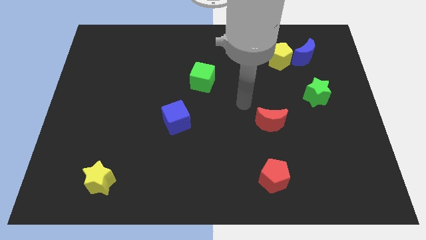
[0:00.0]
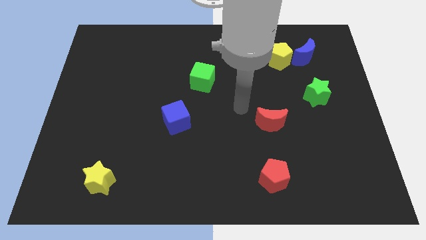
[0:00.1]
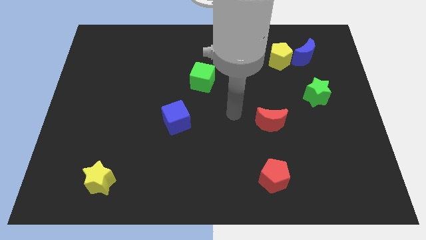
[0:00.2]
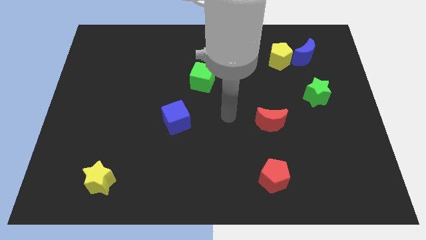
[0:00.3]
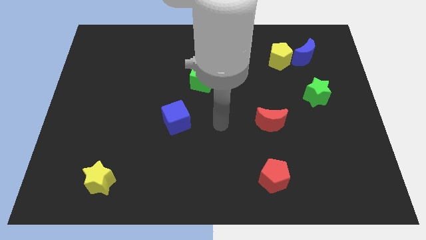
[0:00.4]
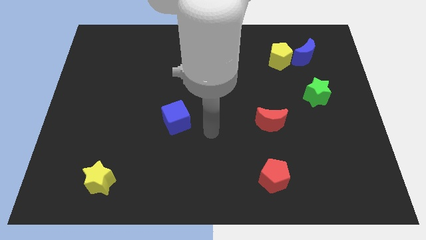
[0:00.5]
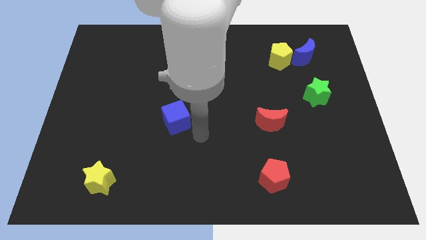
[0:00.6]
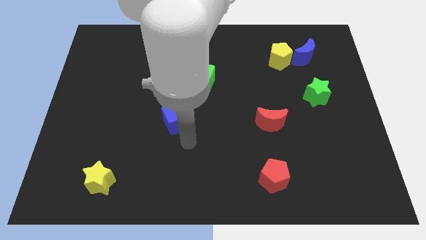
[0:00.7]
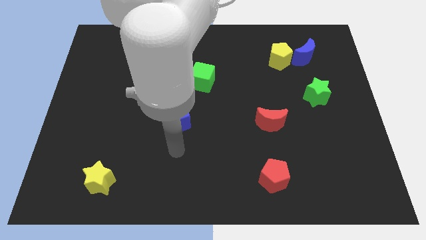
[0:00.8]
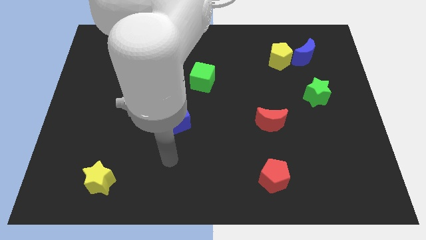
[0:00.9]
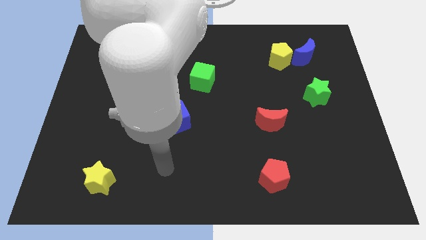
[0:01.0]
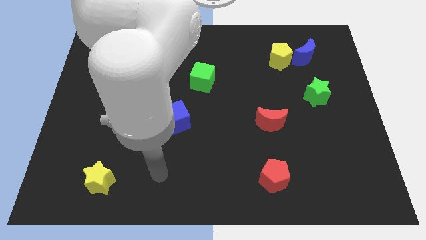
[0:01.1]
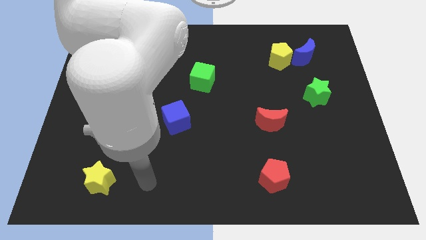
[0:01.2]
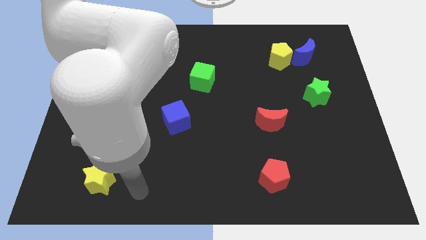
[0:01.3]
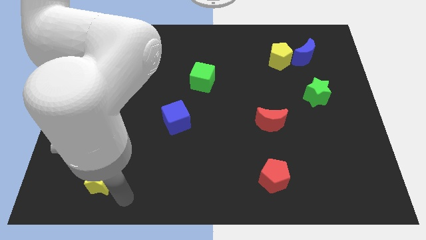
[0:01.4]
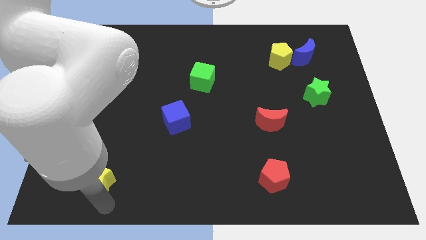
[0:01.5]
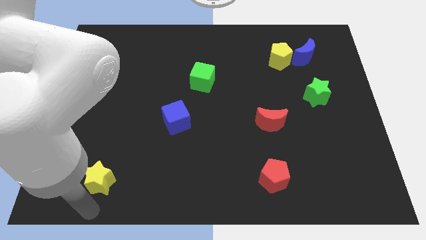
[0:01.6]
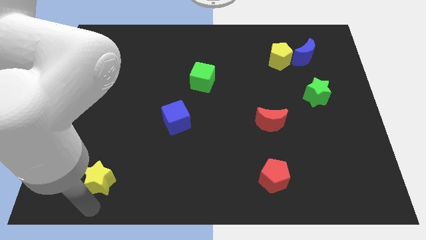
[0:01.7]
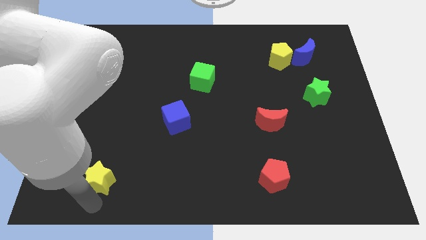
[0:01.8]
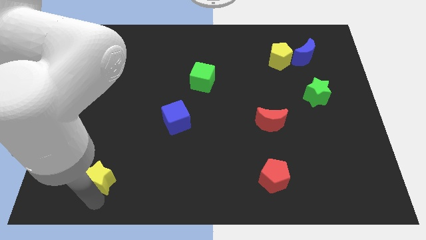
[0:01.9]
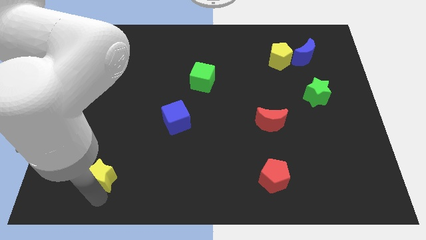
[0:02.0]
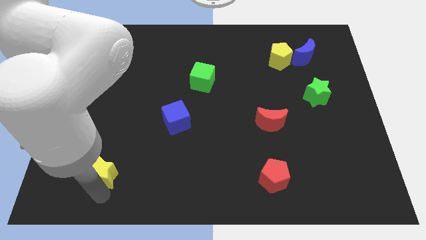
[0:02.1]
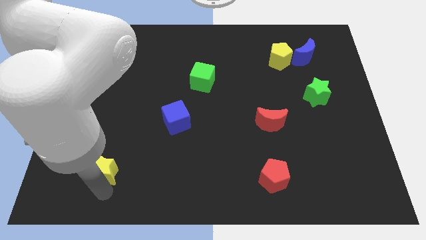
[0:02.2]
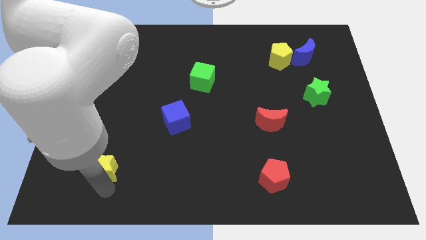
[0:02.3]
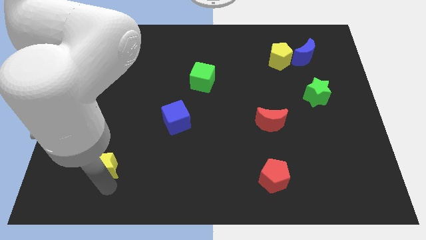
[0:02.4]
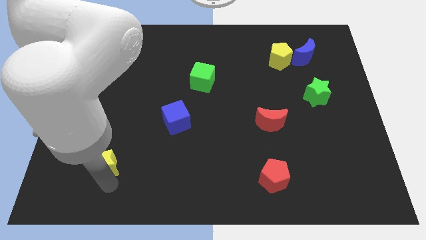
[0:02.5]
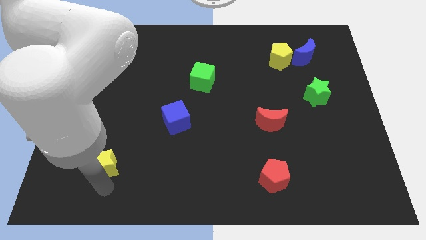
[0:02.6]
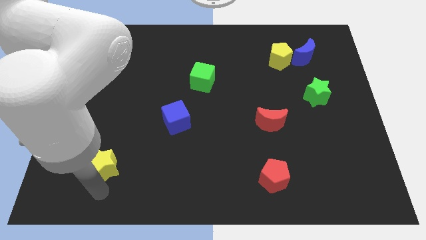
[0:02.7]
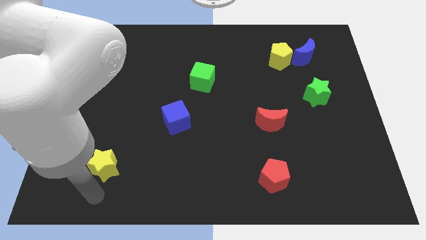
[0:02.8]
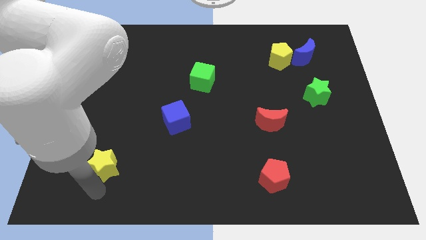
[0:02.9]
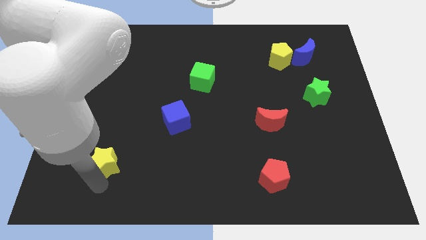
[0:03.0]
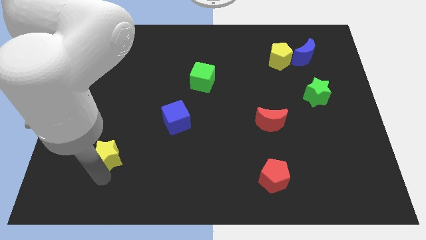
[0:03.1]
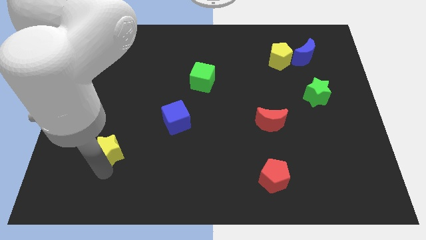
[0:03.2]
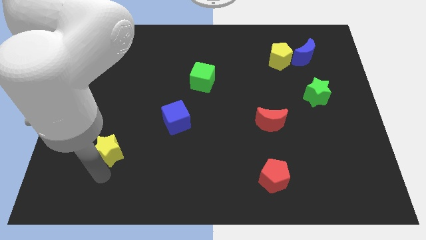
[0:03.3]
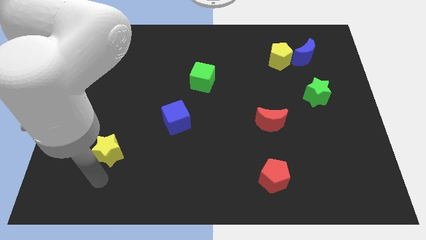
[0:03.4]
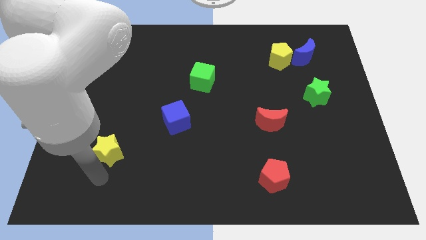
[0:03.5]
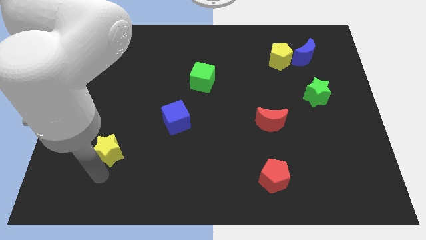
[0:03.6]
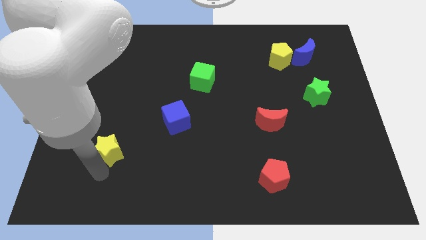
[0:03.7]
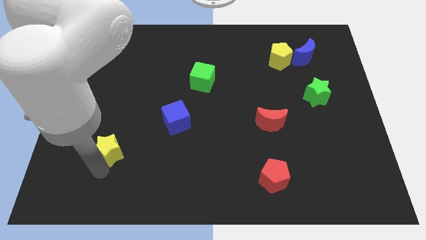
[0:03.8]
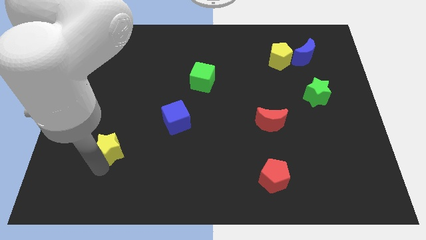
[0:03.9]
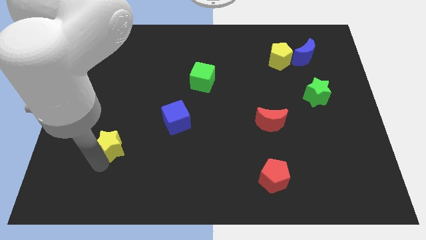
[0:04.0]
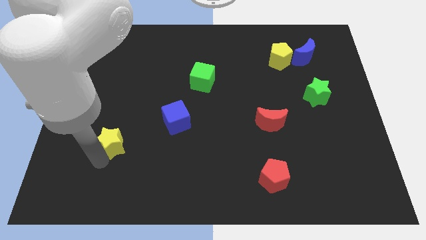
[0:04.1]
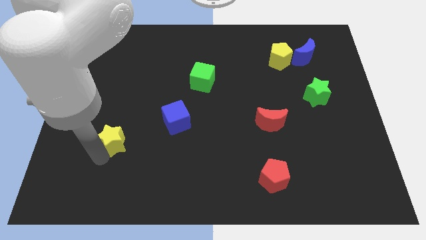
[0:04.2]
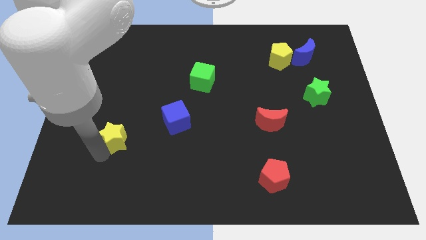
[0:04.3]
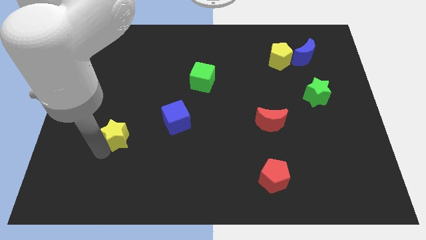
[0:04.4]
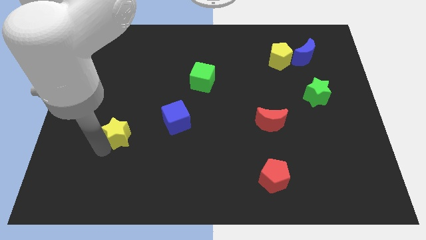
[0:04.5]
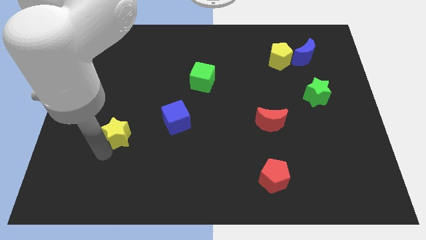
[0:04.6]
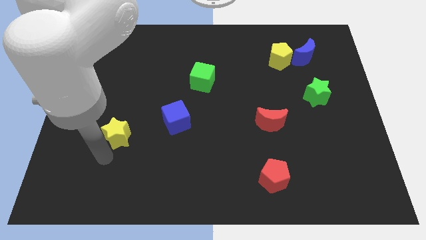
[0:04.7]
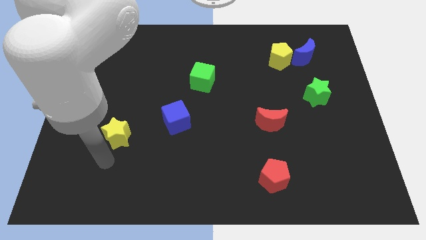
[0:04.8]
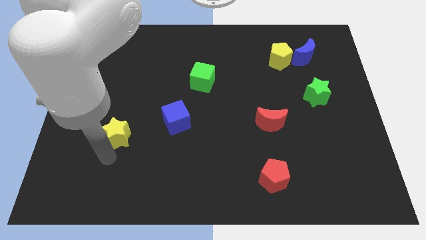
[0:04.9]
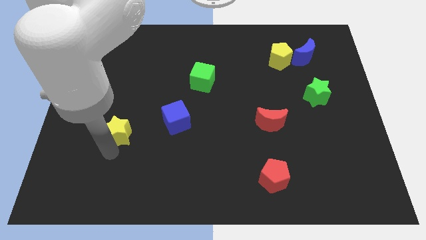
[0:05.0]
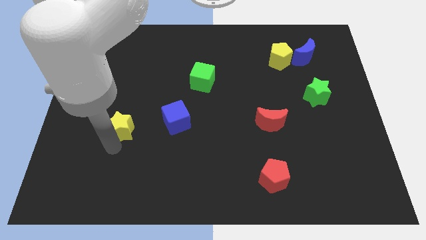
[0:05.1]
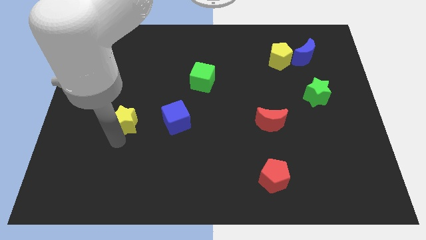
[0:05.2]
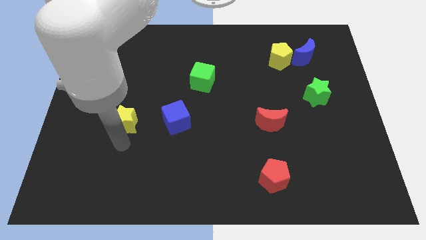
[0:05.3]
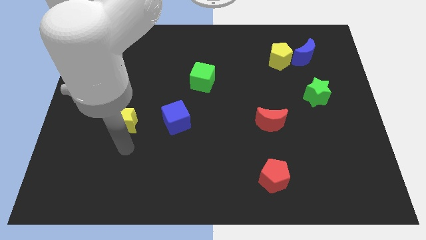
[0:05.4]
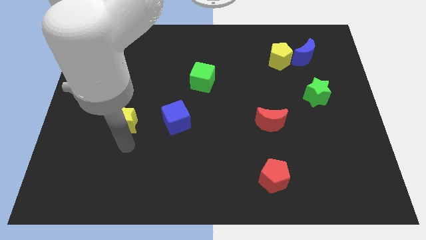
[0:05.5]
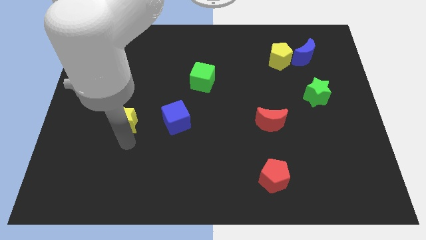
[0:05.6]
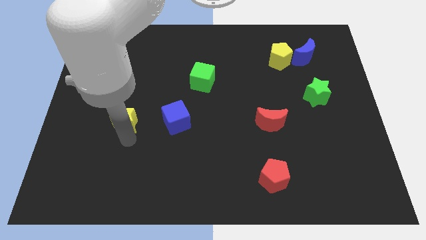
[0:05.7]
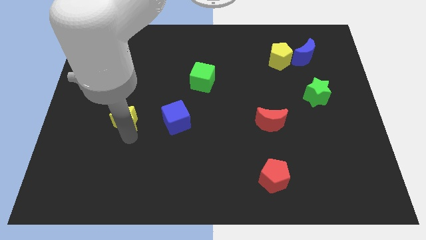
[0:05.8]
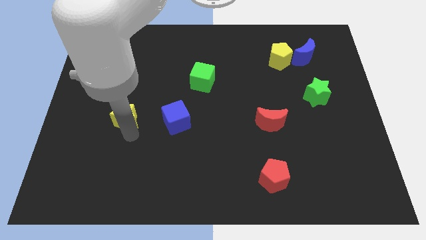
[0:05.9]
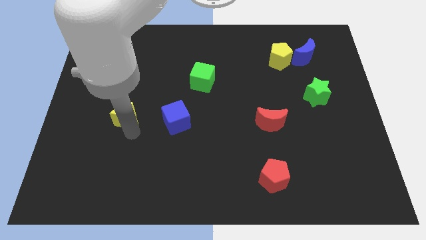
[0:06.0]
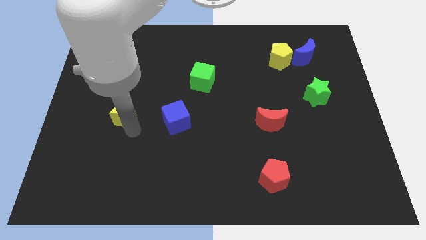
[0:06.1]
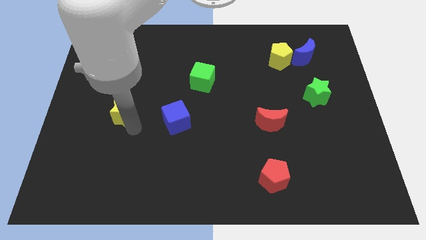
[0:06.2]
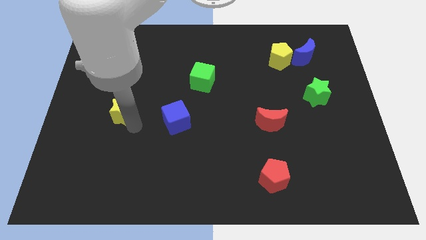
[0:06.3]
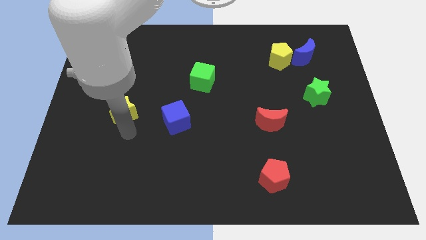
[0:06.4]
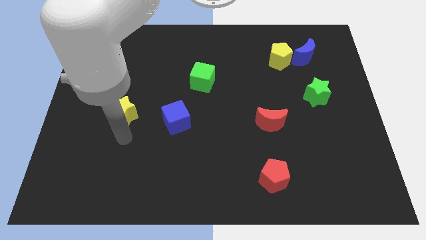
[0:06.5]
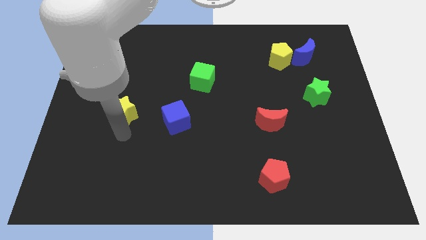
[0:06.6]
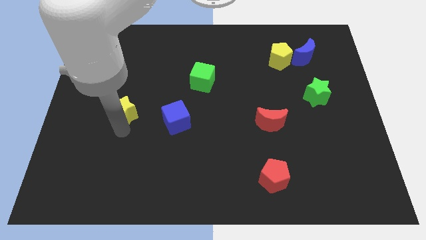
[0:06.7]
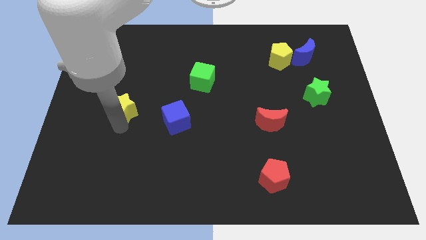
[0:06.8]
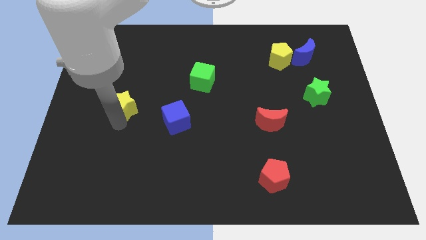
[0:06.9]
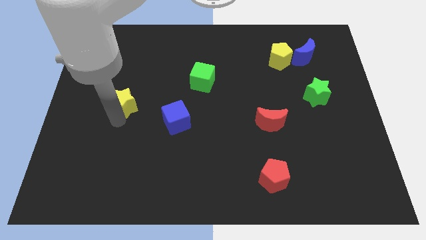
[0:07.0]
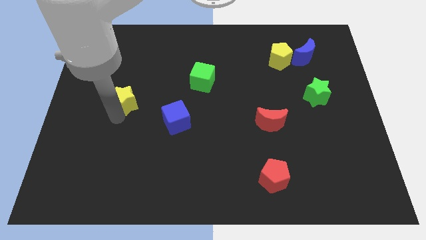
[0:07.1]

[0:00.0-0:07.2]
move the yellow star upwards

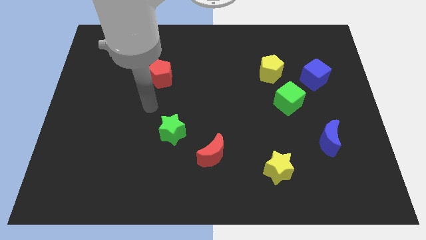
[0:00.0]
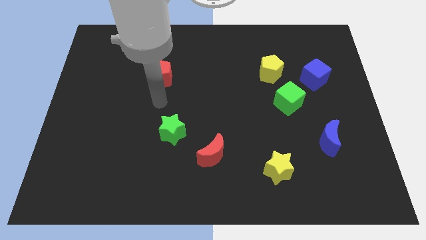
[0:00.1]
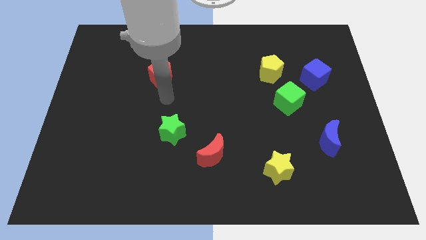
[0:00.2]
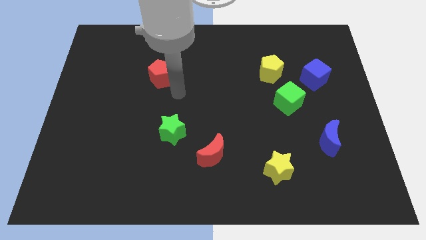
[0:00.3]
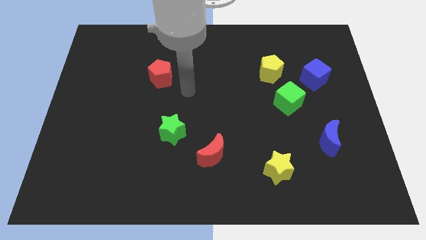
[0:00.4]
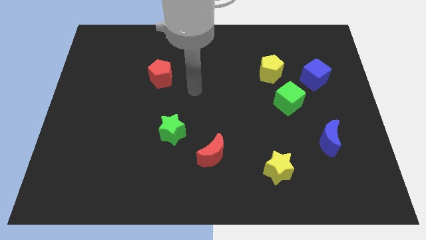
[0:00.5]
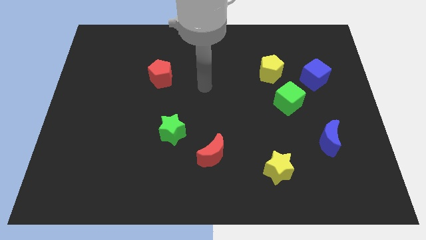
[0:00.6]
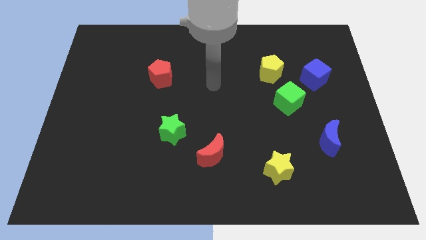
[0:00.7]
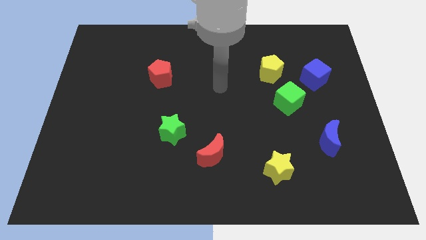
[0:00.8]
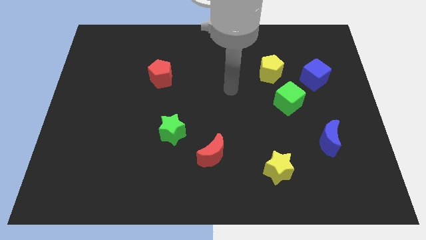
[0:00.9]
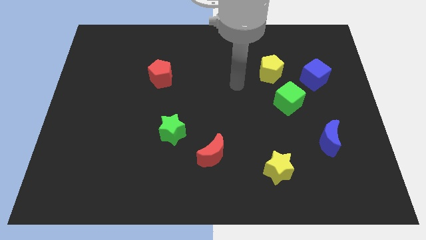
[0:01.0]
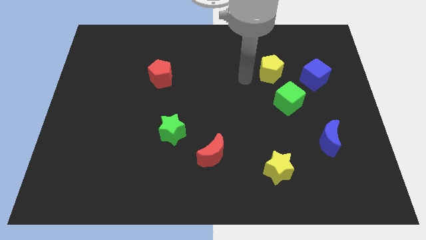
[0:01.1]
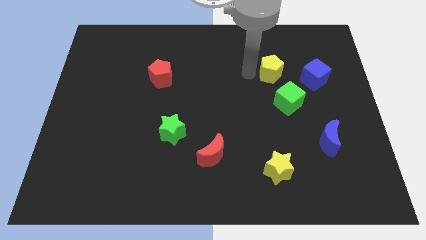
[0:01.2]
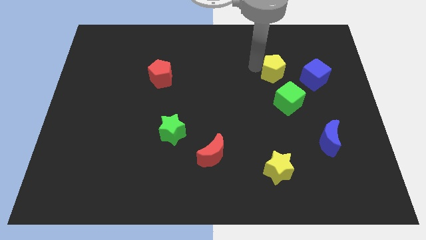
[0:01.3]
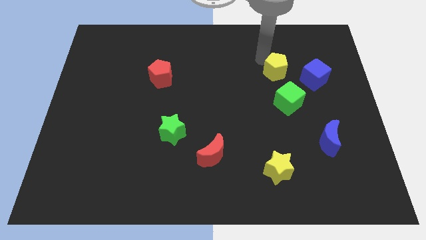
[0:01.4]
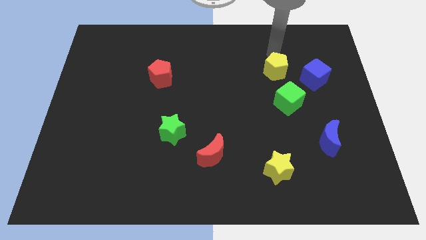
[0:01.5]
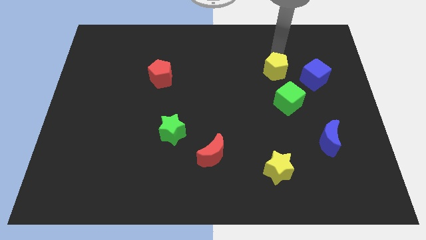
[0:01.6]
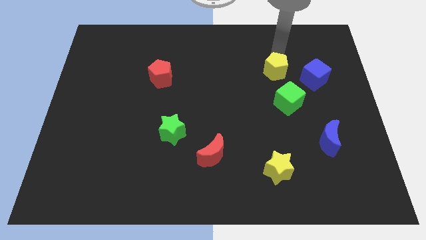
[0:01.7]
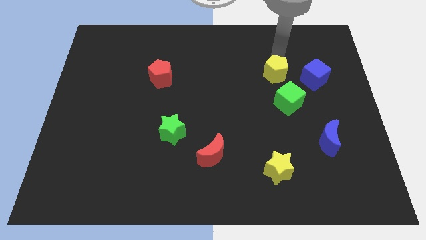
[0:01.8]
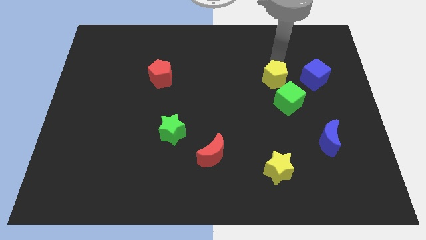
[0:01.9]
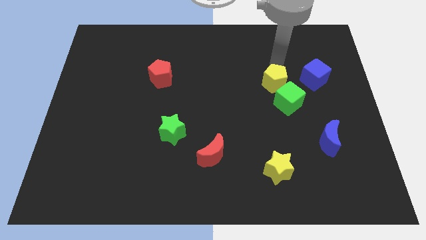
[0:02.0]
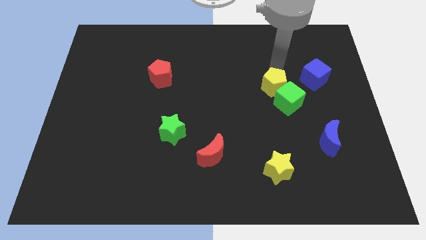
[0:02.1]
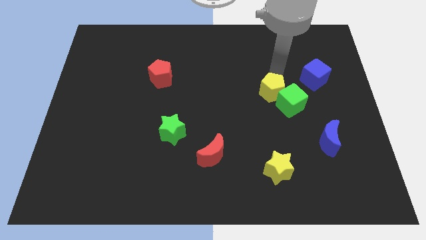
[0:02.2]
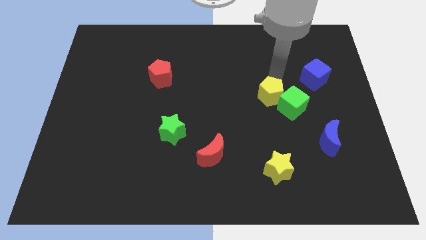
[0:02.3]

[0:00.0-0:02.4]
push the yellow pentagon down a bit
